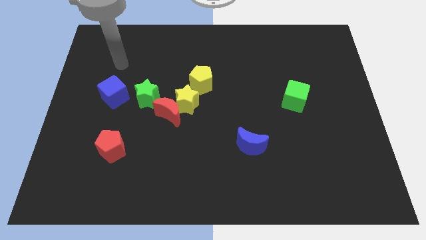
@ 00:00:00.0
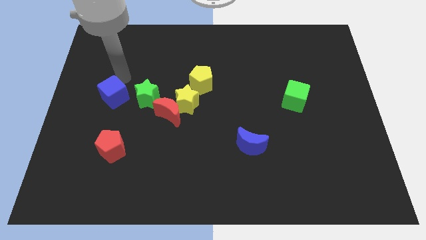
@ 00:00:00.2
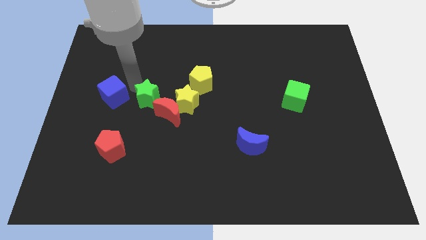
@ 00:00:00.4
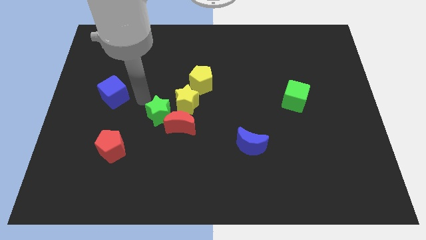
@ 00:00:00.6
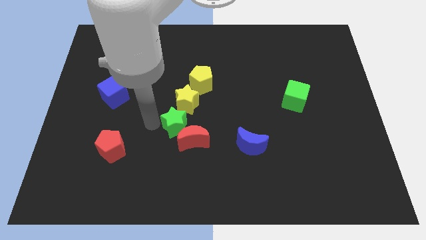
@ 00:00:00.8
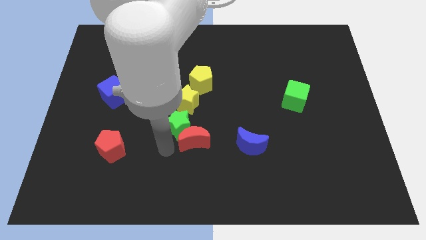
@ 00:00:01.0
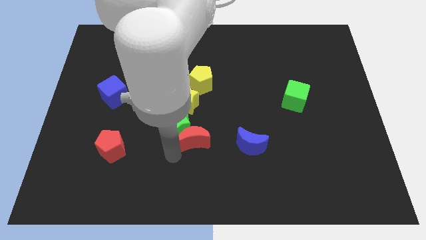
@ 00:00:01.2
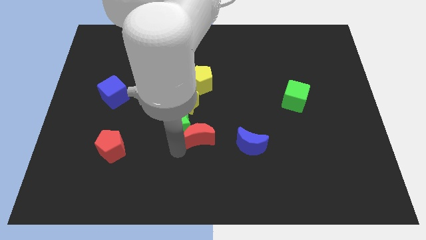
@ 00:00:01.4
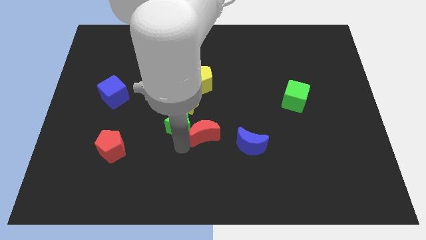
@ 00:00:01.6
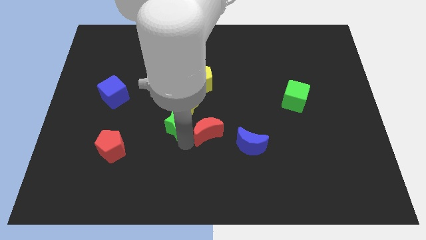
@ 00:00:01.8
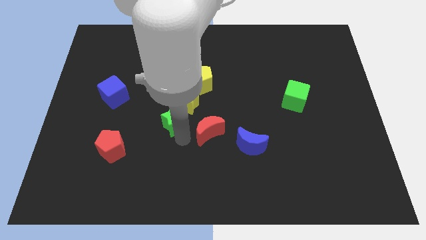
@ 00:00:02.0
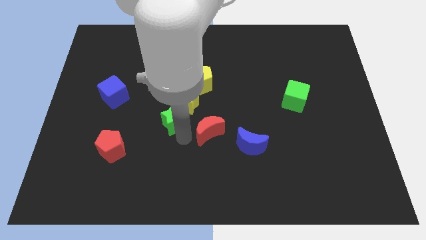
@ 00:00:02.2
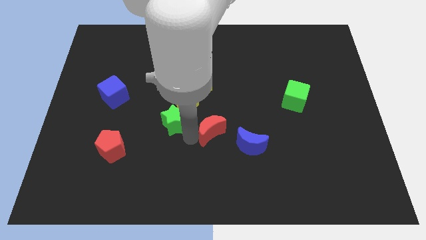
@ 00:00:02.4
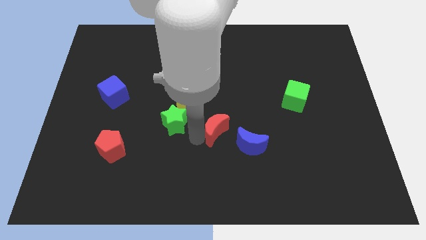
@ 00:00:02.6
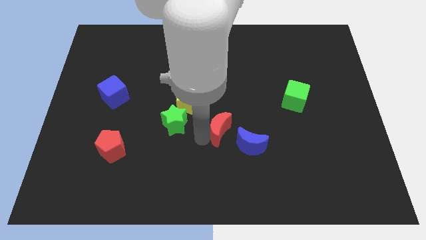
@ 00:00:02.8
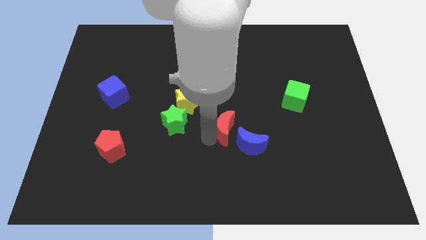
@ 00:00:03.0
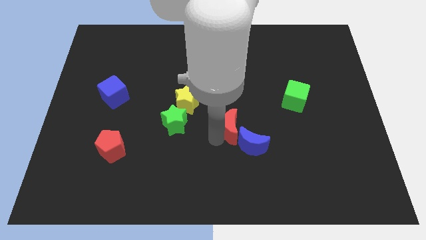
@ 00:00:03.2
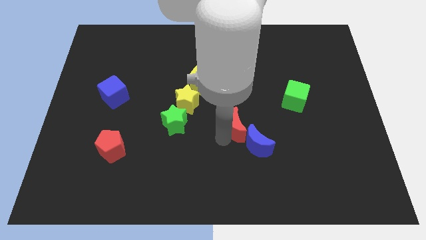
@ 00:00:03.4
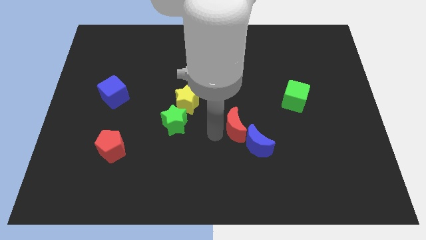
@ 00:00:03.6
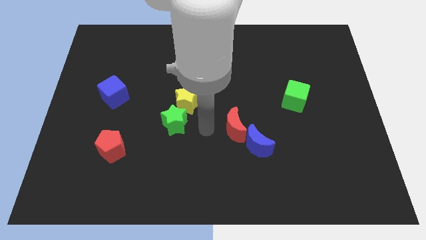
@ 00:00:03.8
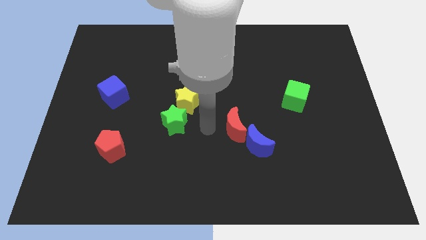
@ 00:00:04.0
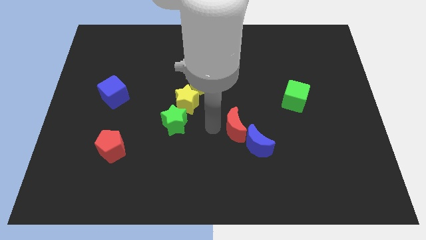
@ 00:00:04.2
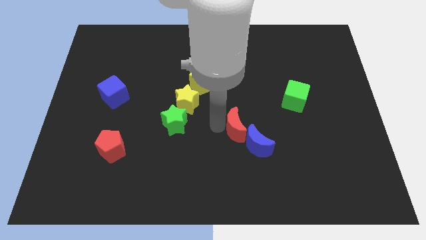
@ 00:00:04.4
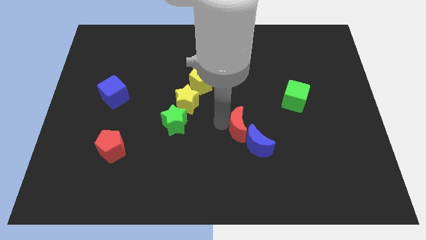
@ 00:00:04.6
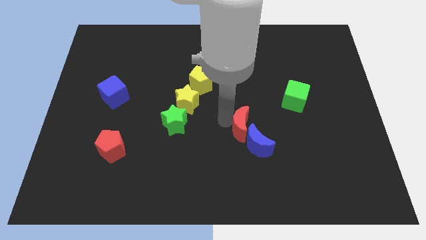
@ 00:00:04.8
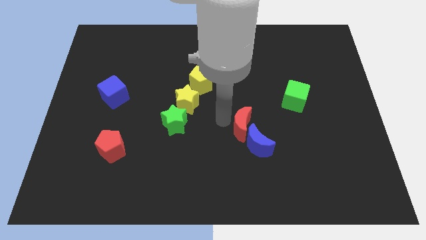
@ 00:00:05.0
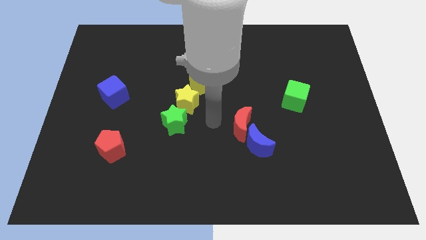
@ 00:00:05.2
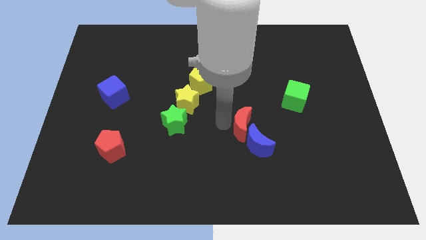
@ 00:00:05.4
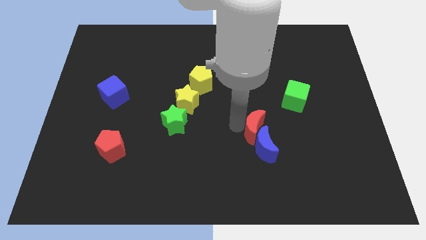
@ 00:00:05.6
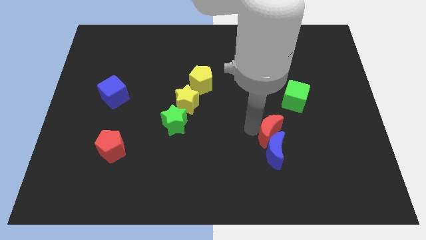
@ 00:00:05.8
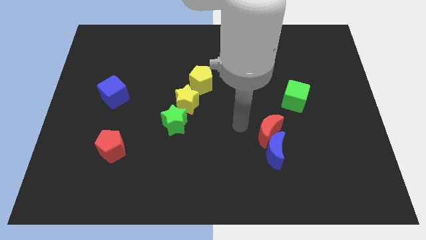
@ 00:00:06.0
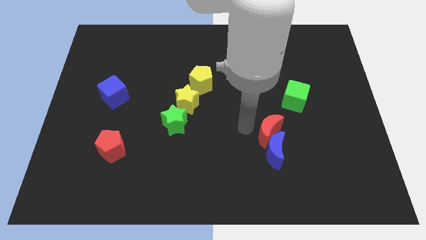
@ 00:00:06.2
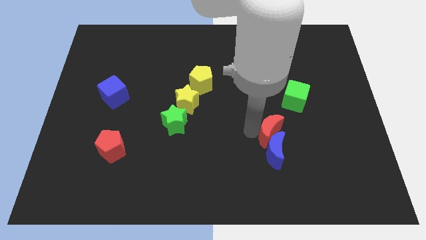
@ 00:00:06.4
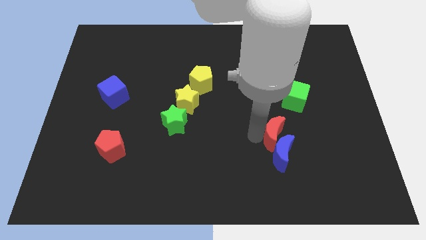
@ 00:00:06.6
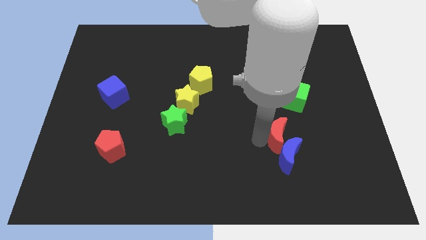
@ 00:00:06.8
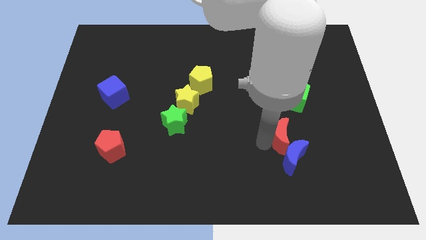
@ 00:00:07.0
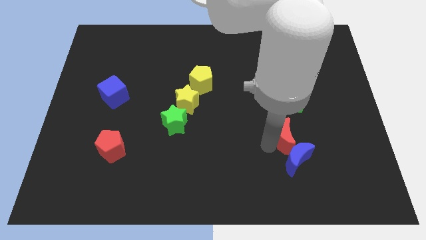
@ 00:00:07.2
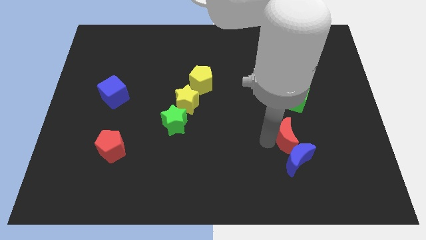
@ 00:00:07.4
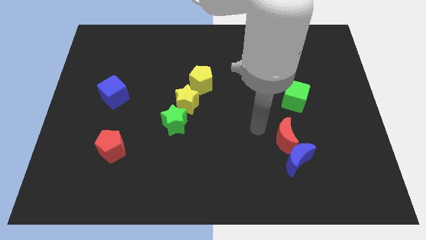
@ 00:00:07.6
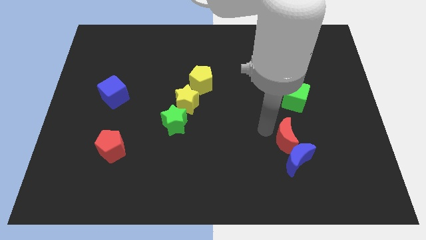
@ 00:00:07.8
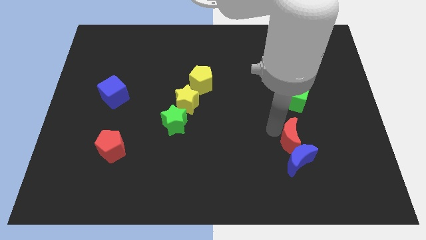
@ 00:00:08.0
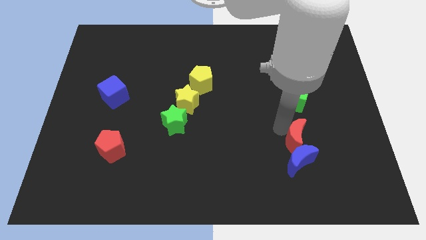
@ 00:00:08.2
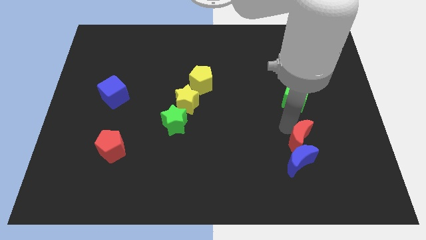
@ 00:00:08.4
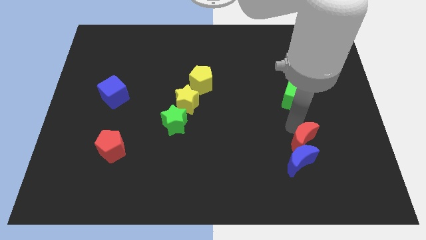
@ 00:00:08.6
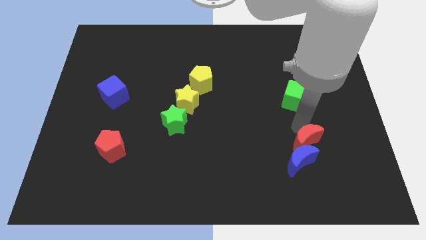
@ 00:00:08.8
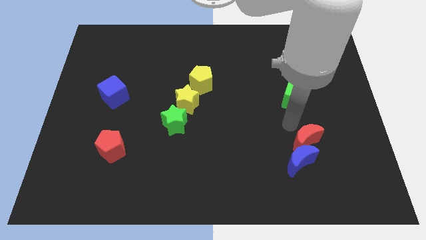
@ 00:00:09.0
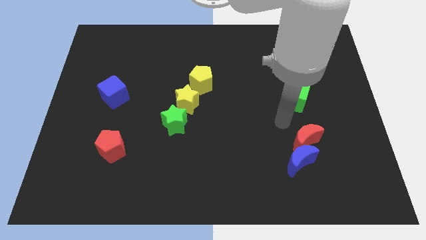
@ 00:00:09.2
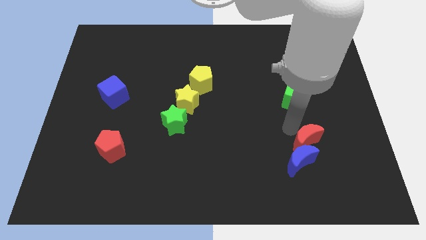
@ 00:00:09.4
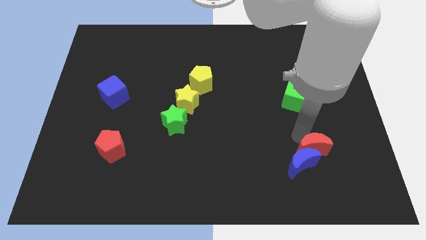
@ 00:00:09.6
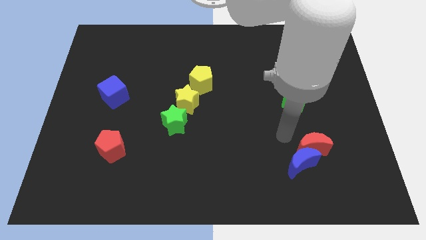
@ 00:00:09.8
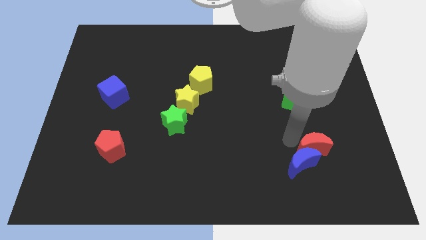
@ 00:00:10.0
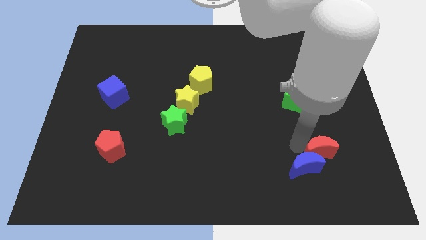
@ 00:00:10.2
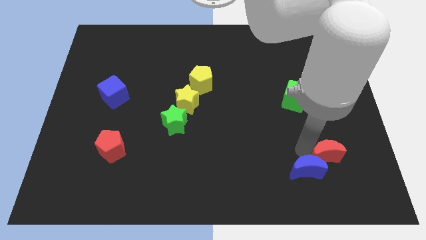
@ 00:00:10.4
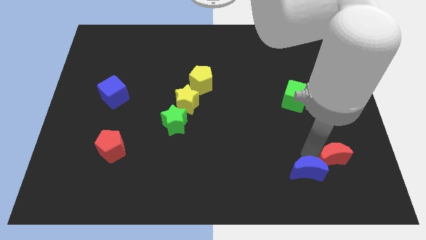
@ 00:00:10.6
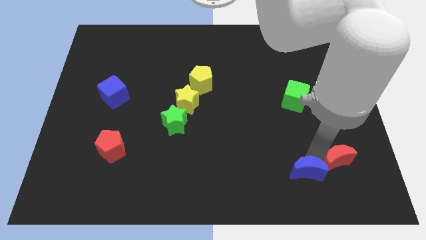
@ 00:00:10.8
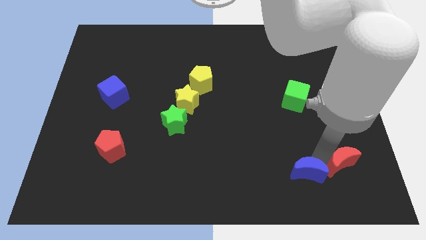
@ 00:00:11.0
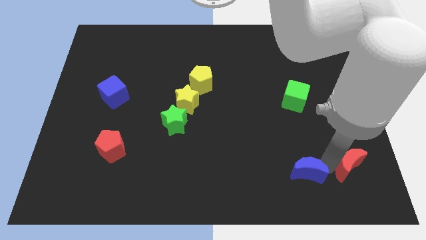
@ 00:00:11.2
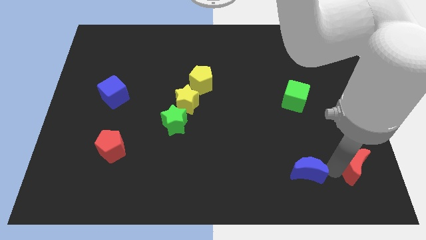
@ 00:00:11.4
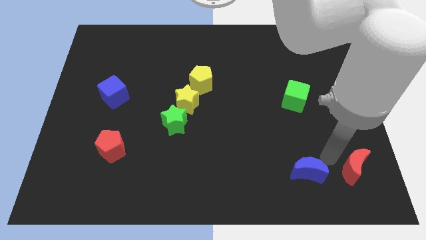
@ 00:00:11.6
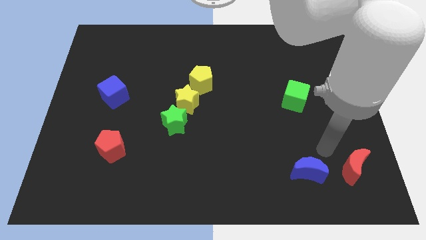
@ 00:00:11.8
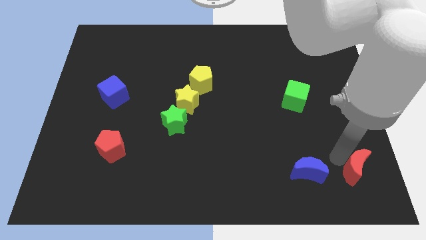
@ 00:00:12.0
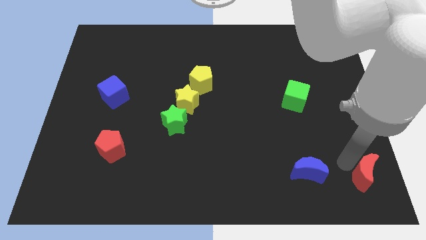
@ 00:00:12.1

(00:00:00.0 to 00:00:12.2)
push the red moon to the bottom right corner
